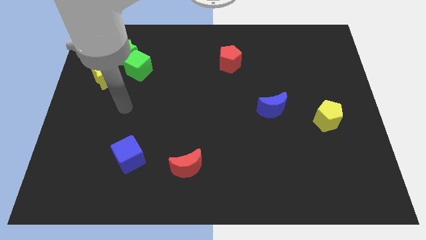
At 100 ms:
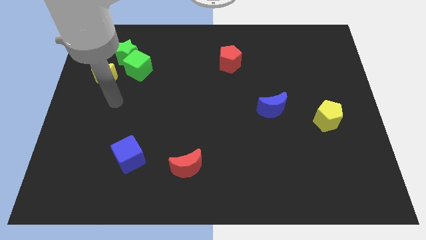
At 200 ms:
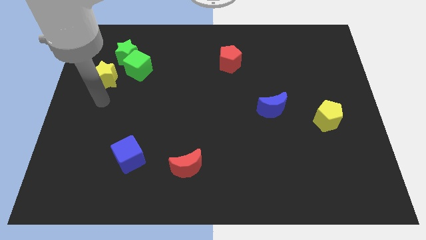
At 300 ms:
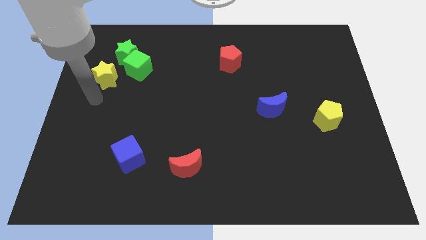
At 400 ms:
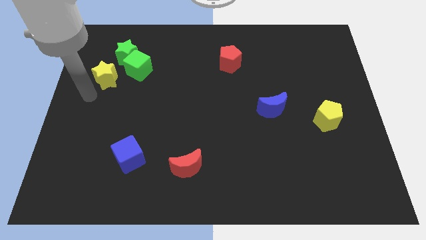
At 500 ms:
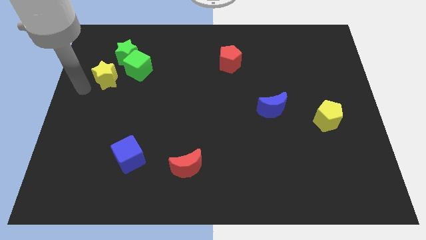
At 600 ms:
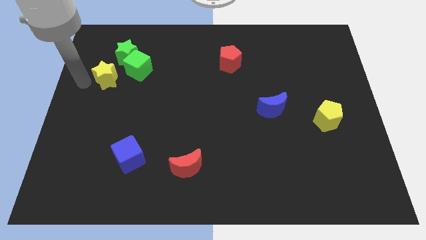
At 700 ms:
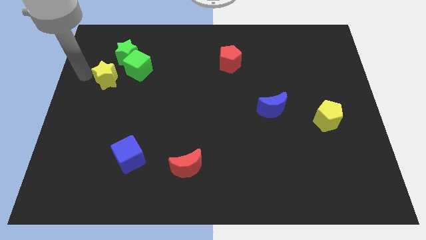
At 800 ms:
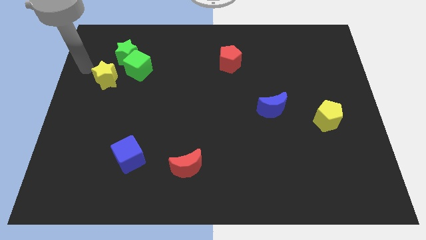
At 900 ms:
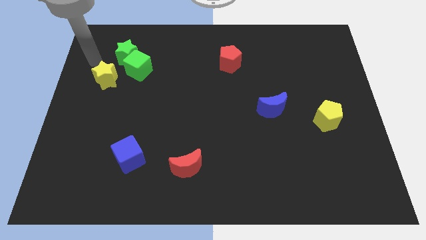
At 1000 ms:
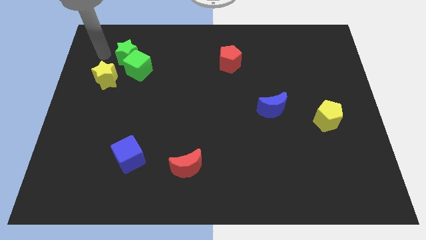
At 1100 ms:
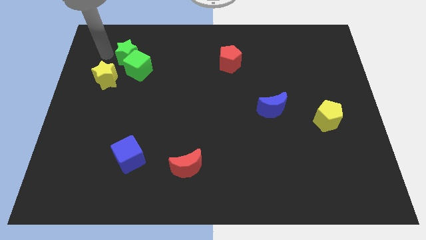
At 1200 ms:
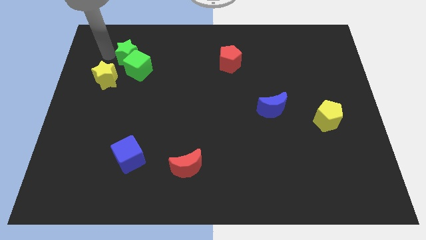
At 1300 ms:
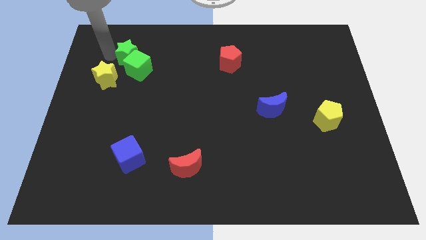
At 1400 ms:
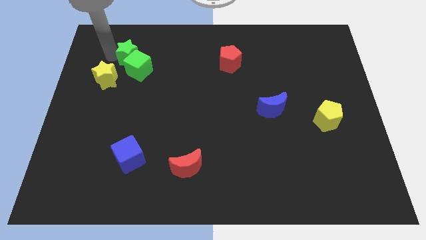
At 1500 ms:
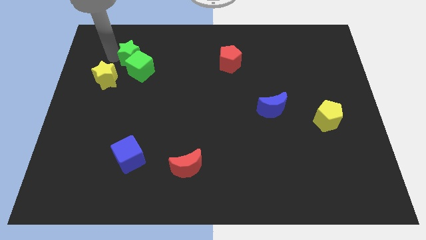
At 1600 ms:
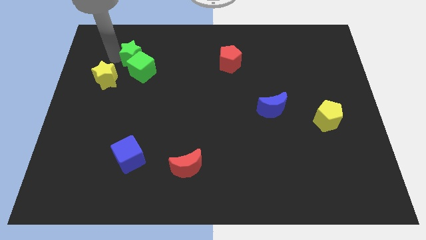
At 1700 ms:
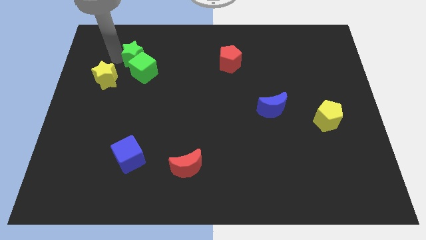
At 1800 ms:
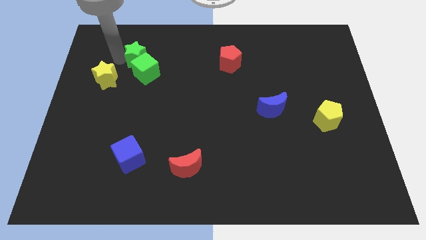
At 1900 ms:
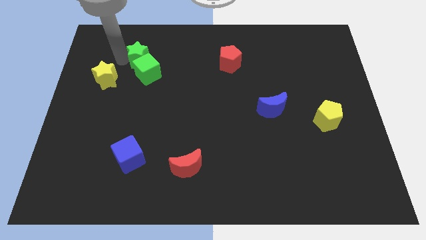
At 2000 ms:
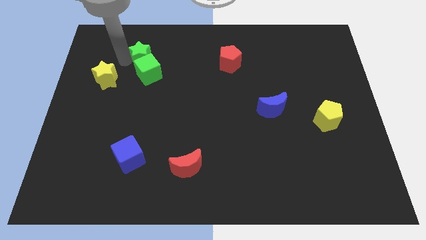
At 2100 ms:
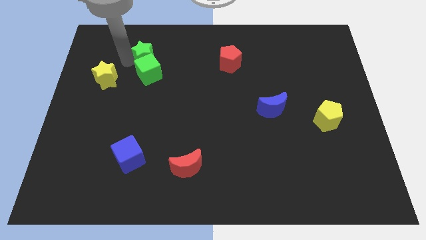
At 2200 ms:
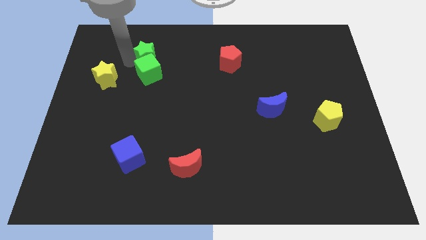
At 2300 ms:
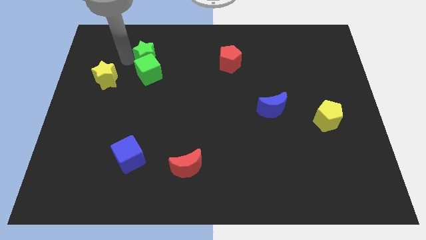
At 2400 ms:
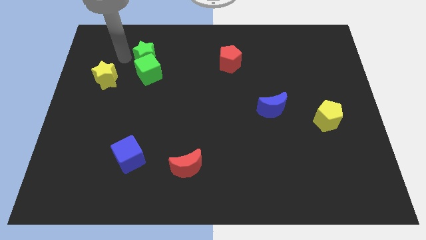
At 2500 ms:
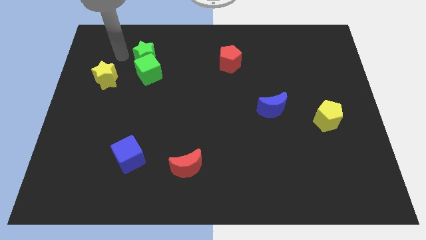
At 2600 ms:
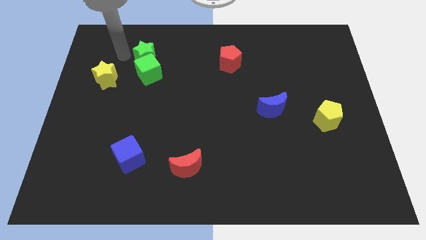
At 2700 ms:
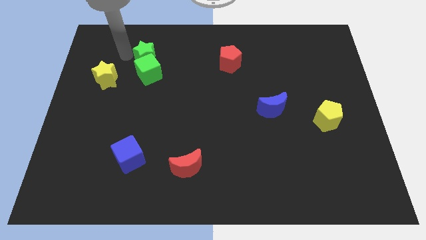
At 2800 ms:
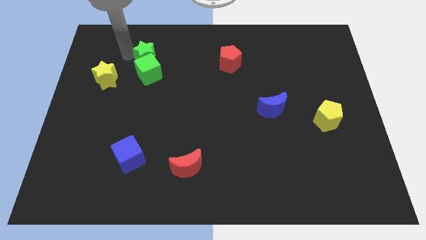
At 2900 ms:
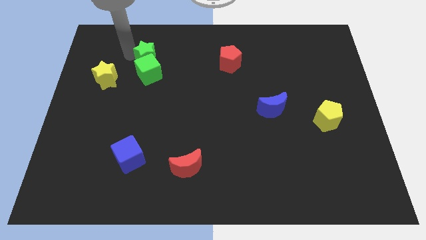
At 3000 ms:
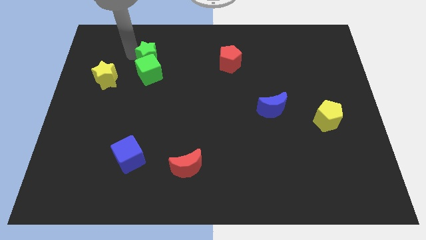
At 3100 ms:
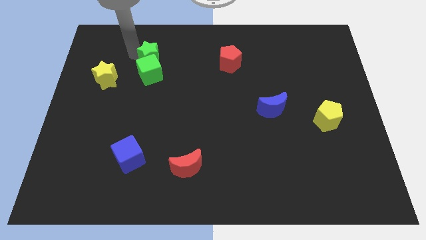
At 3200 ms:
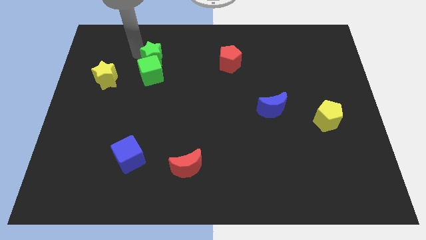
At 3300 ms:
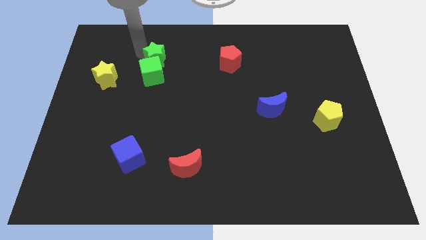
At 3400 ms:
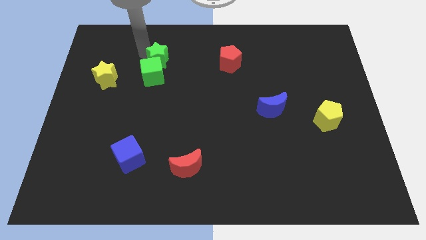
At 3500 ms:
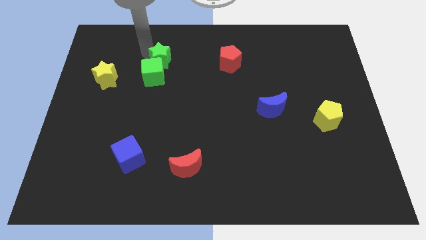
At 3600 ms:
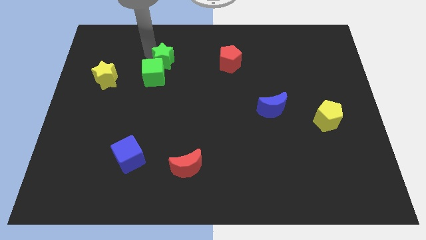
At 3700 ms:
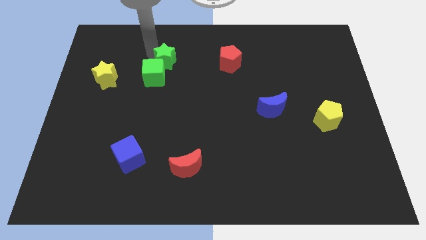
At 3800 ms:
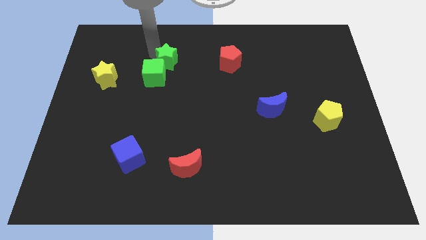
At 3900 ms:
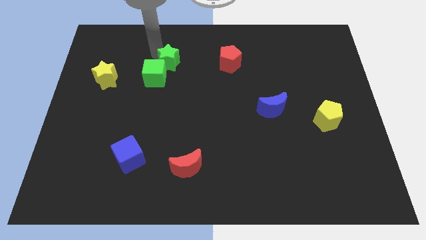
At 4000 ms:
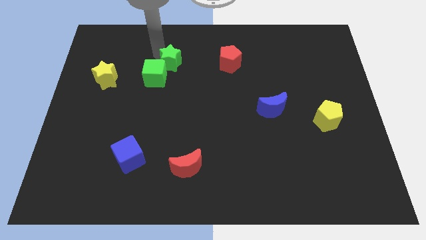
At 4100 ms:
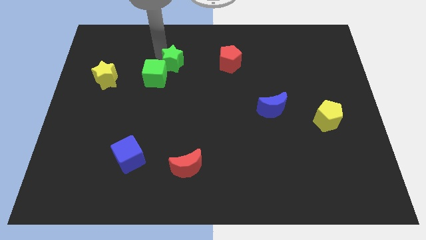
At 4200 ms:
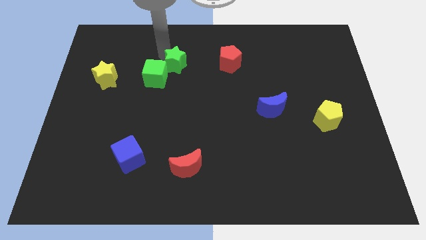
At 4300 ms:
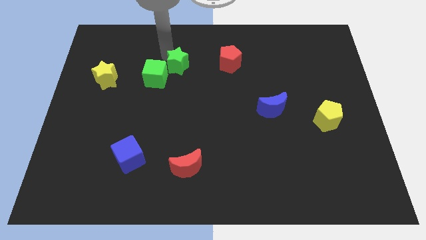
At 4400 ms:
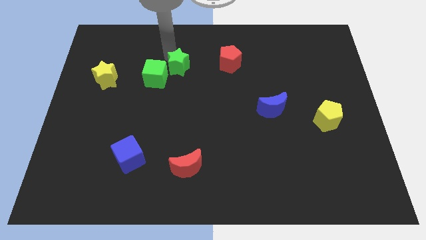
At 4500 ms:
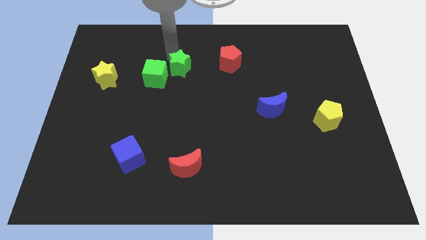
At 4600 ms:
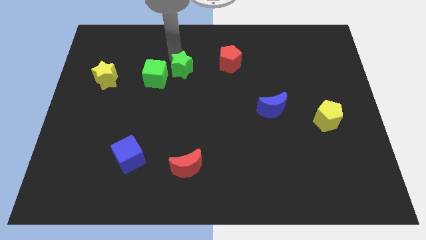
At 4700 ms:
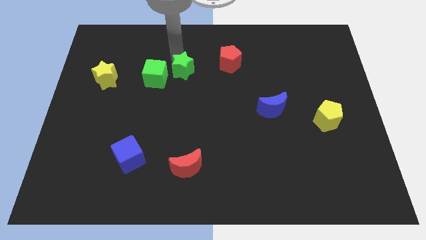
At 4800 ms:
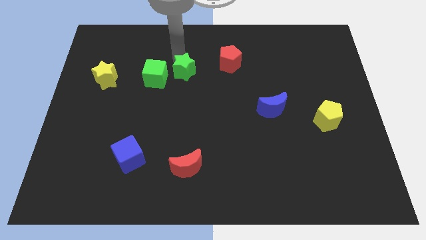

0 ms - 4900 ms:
put the green star to the center of the board

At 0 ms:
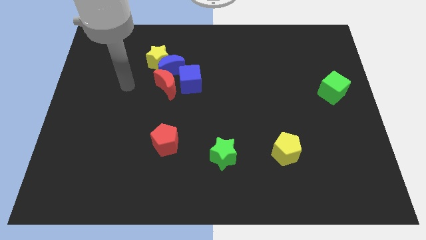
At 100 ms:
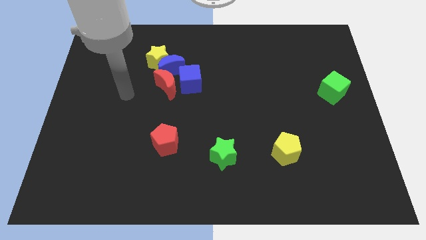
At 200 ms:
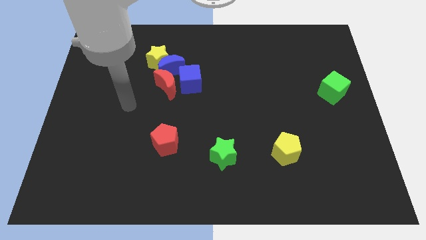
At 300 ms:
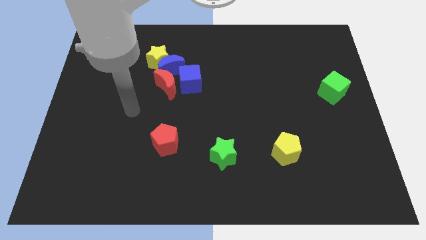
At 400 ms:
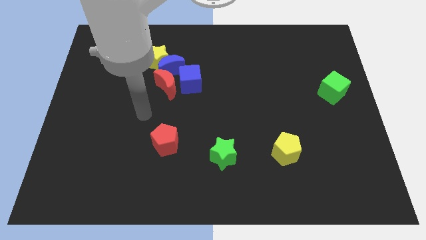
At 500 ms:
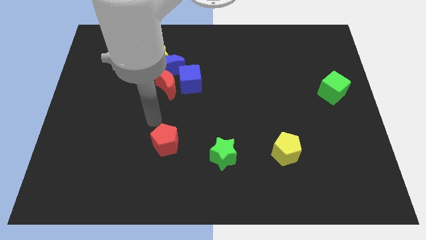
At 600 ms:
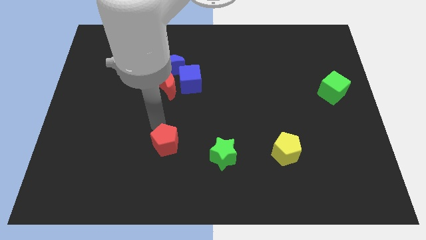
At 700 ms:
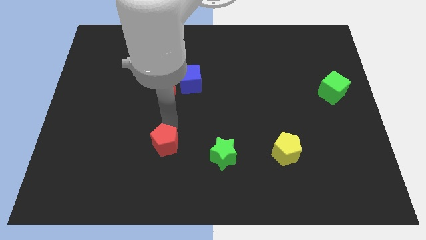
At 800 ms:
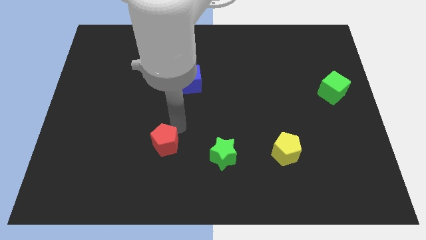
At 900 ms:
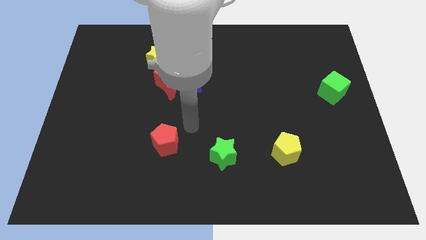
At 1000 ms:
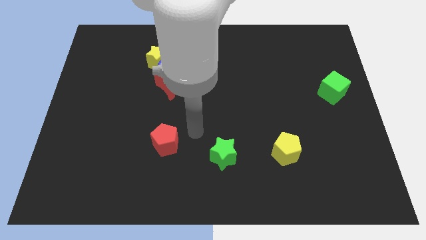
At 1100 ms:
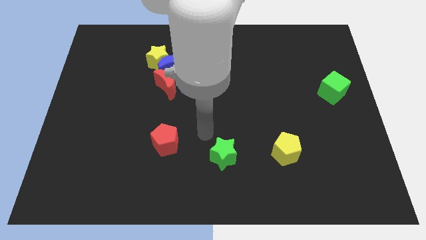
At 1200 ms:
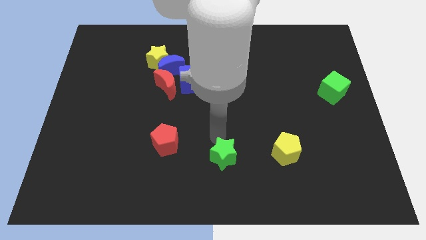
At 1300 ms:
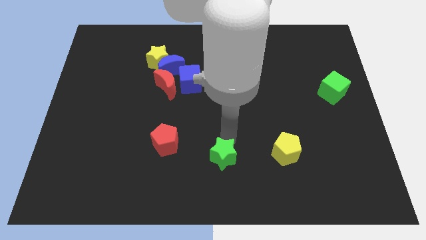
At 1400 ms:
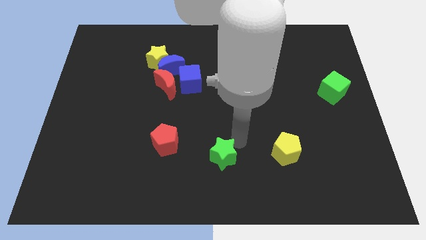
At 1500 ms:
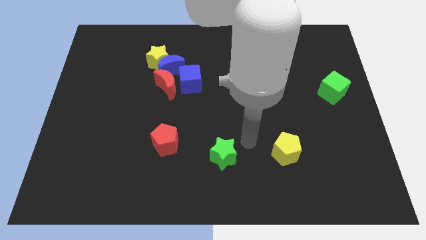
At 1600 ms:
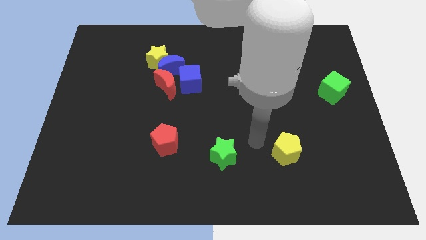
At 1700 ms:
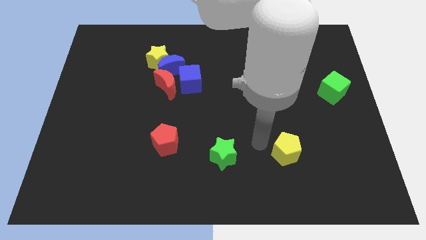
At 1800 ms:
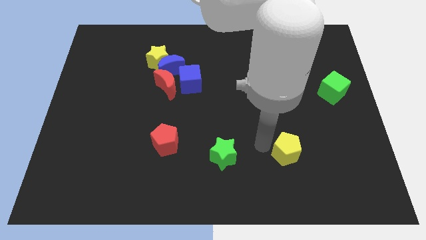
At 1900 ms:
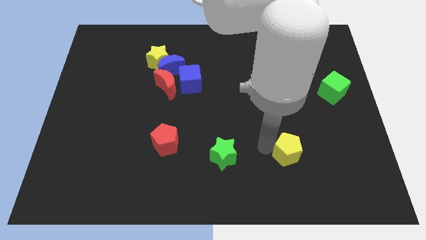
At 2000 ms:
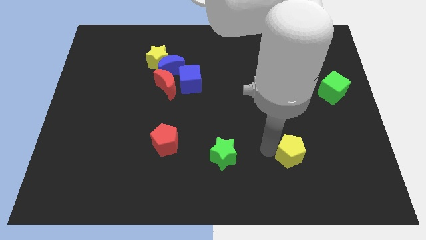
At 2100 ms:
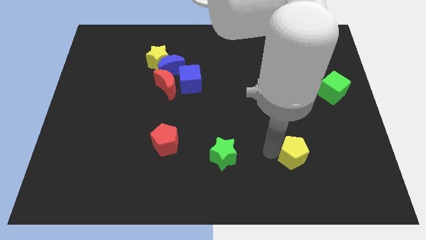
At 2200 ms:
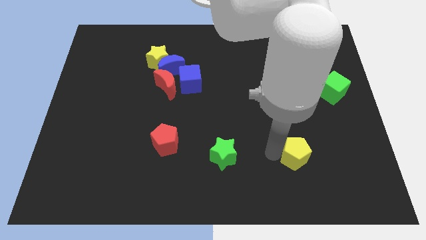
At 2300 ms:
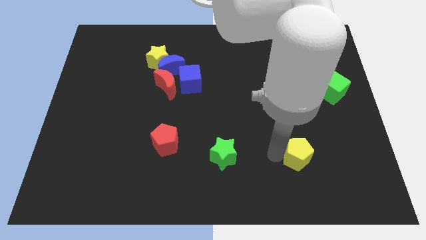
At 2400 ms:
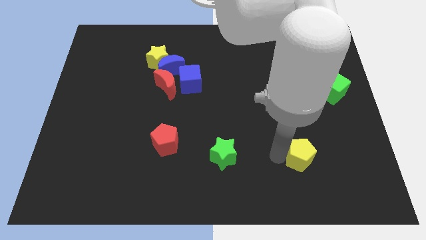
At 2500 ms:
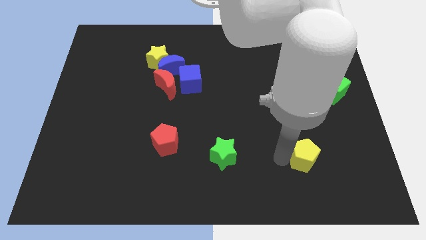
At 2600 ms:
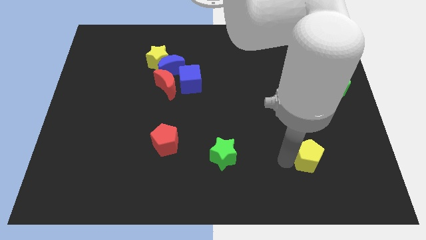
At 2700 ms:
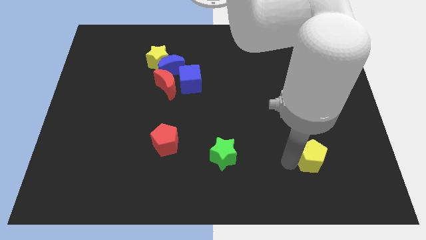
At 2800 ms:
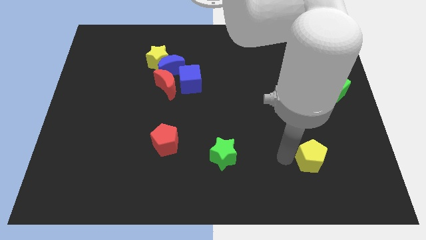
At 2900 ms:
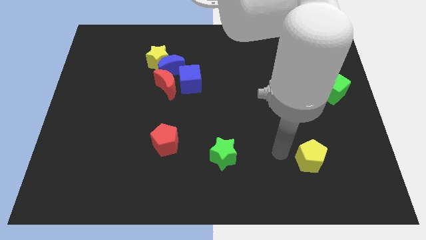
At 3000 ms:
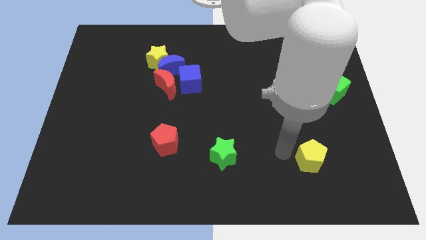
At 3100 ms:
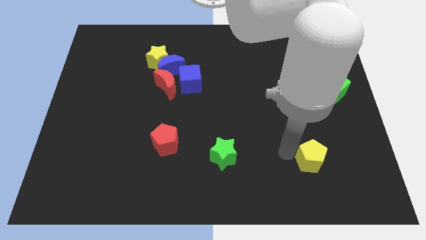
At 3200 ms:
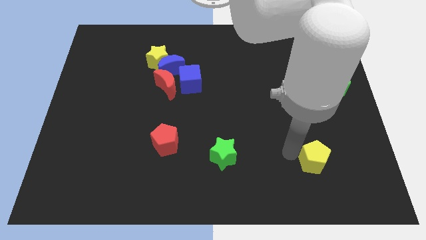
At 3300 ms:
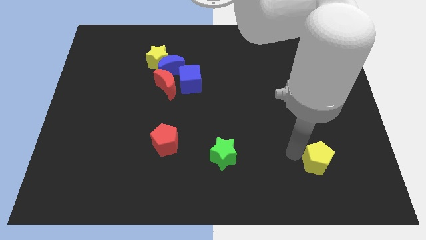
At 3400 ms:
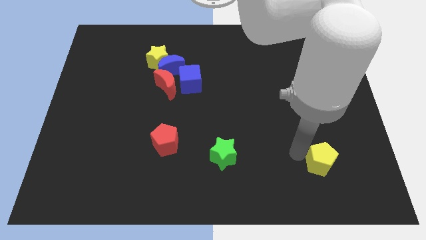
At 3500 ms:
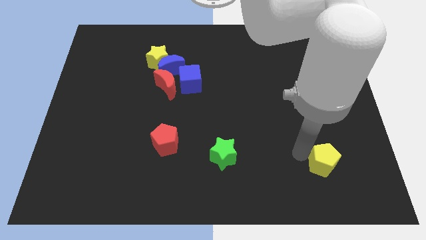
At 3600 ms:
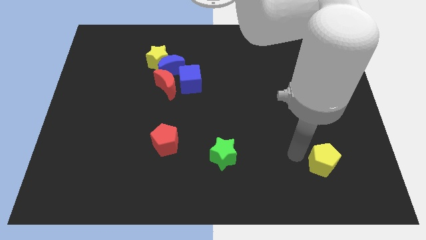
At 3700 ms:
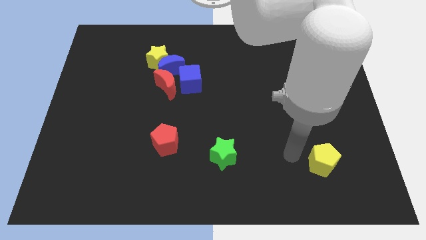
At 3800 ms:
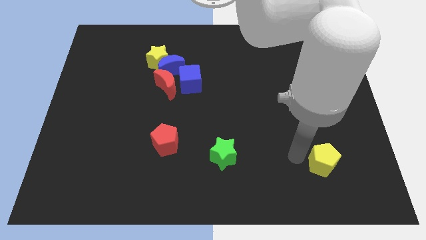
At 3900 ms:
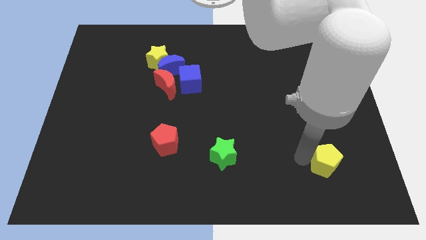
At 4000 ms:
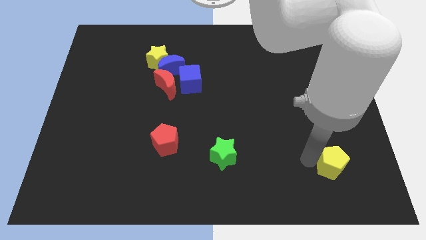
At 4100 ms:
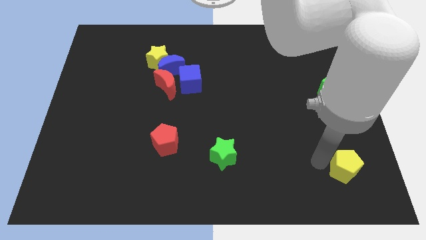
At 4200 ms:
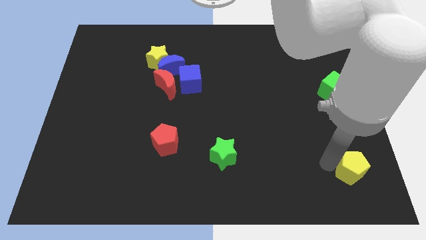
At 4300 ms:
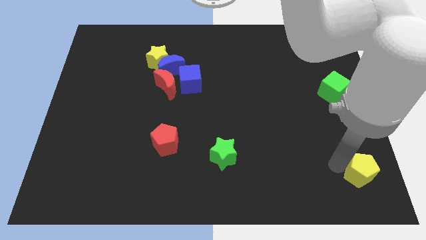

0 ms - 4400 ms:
move the yellow pentagon to the bottom right of the board
